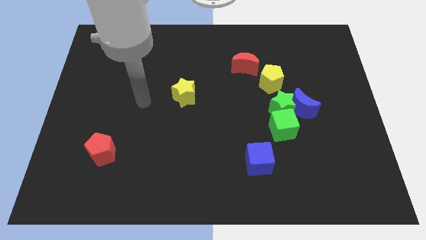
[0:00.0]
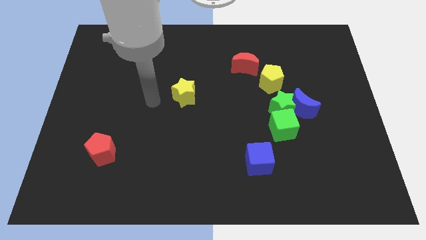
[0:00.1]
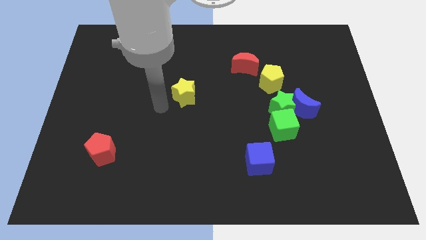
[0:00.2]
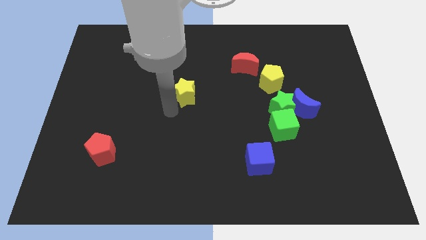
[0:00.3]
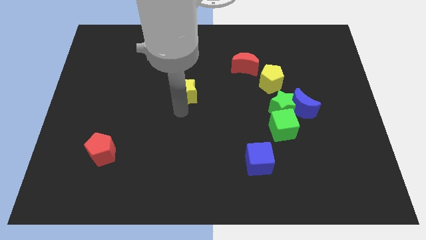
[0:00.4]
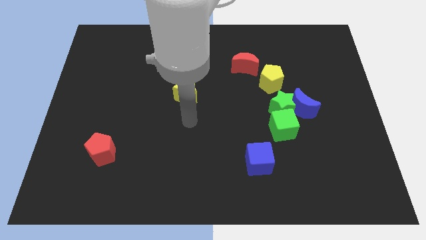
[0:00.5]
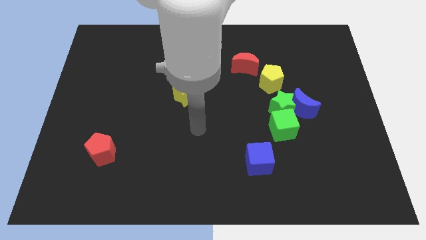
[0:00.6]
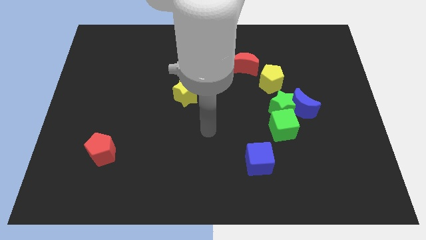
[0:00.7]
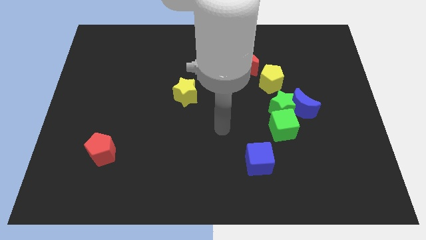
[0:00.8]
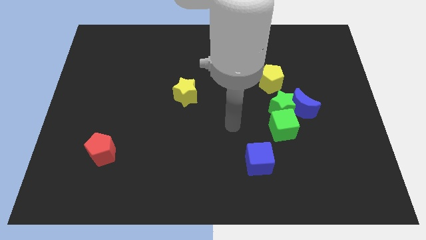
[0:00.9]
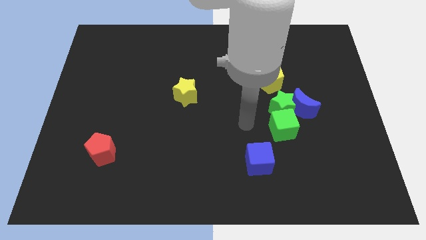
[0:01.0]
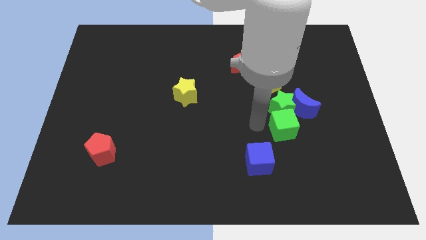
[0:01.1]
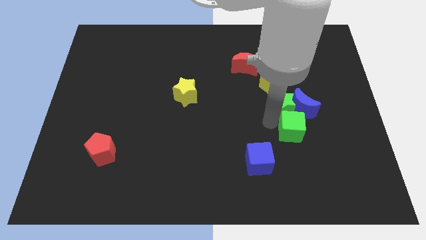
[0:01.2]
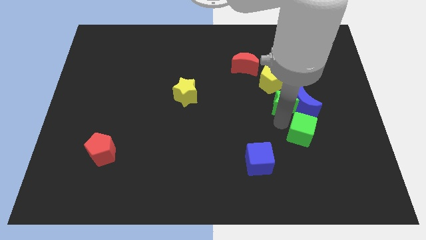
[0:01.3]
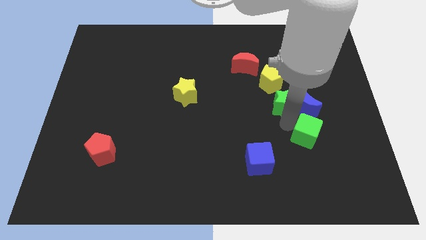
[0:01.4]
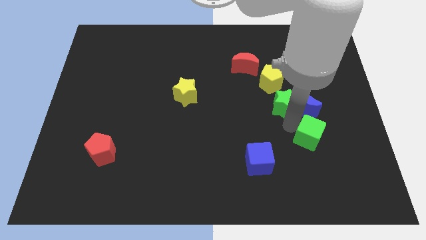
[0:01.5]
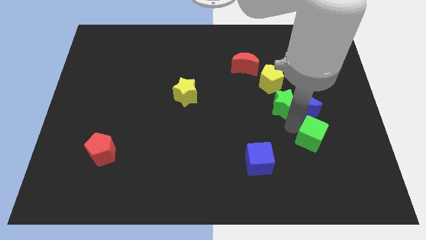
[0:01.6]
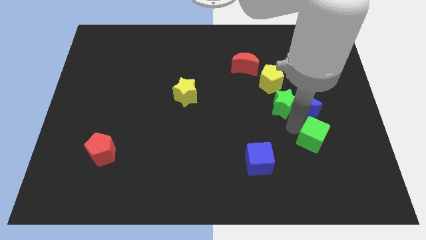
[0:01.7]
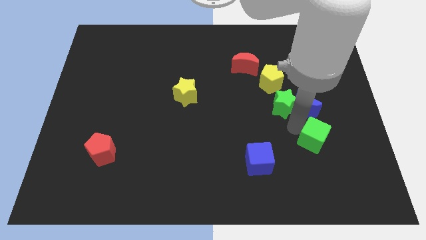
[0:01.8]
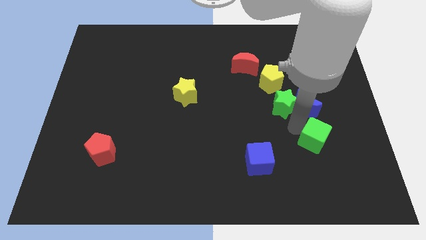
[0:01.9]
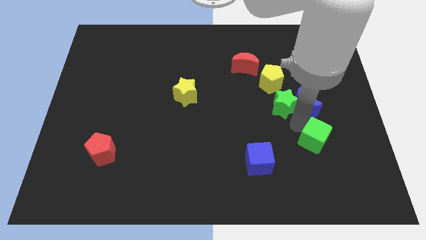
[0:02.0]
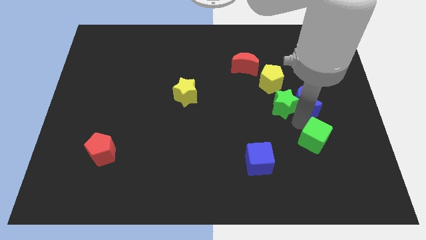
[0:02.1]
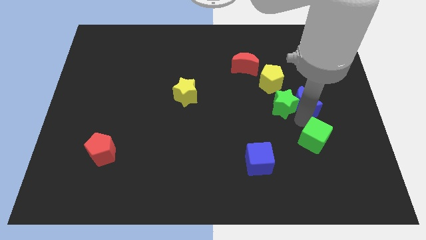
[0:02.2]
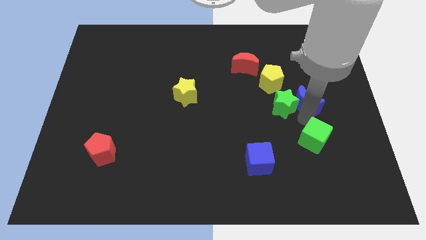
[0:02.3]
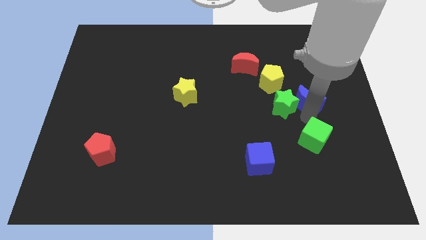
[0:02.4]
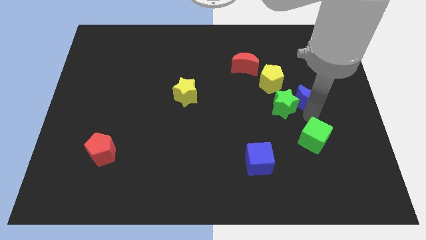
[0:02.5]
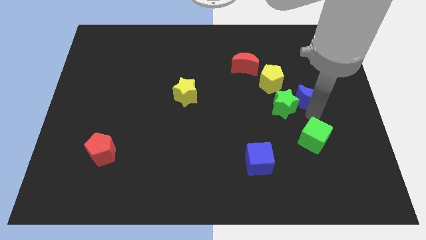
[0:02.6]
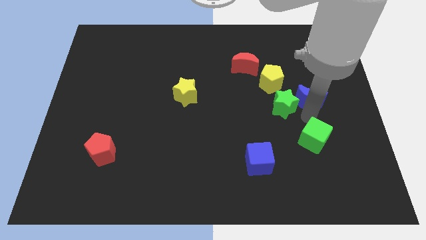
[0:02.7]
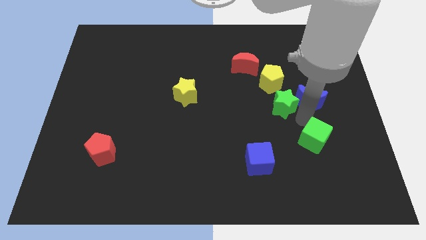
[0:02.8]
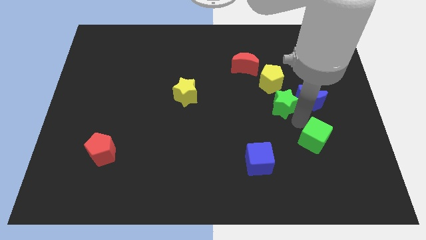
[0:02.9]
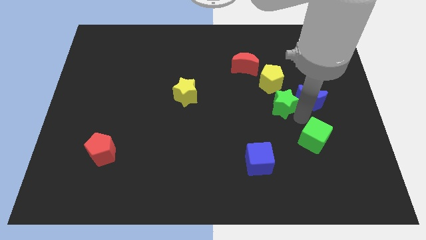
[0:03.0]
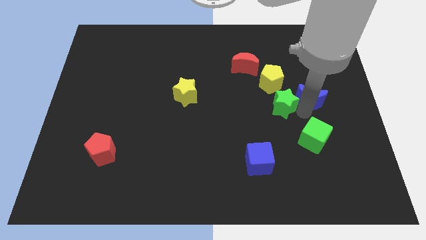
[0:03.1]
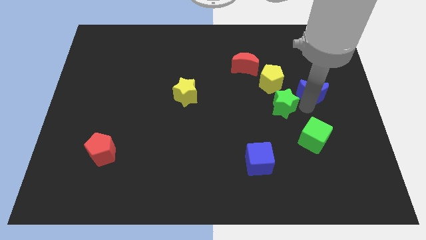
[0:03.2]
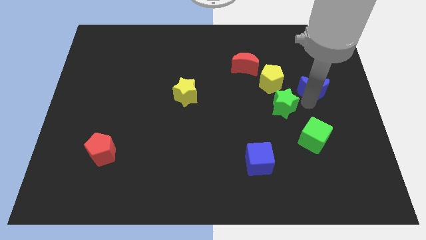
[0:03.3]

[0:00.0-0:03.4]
pull the blue moon apart from the green star and green cube

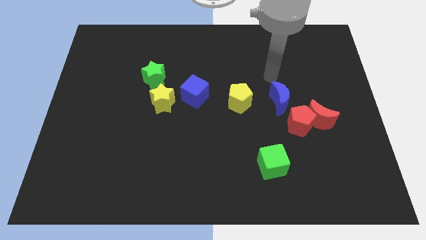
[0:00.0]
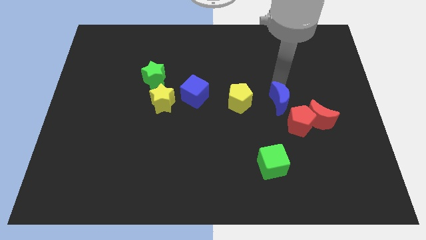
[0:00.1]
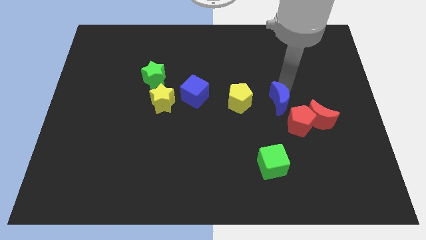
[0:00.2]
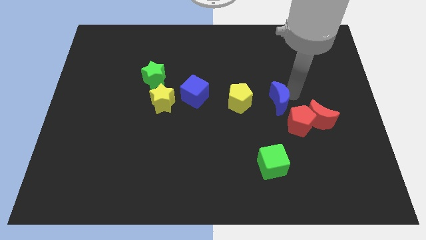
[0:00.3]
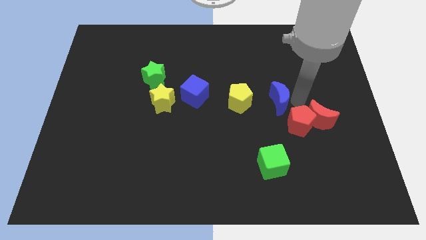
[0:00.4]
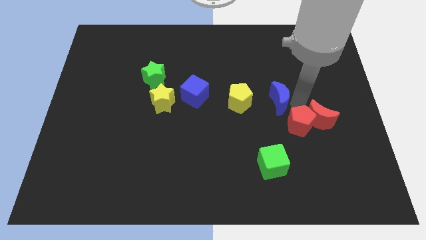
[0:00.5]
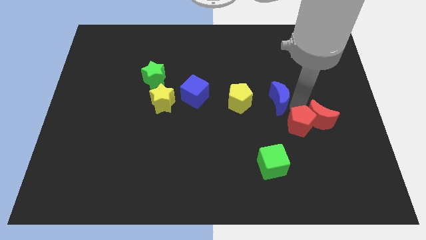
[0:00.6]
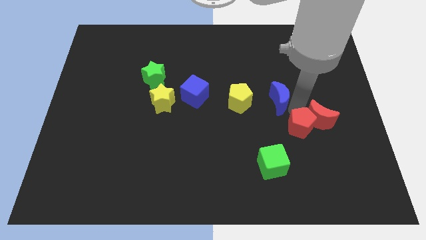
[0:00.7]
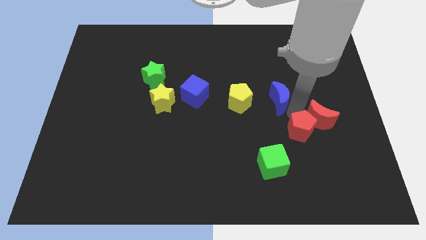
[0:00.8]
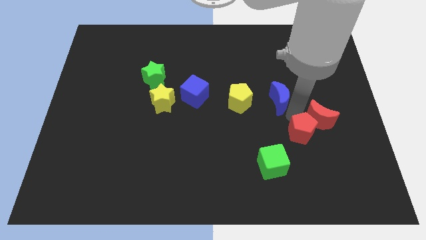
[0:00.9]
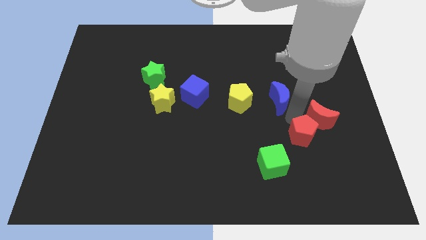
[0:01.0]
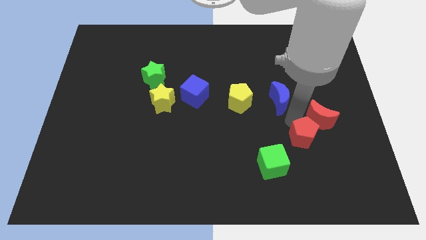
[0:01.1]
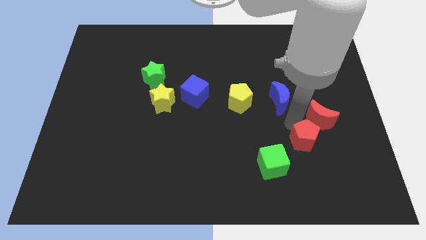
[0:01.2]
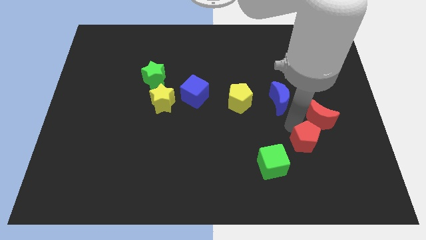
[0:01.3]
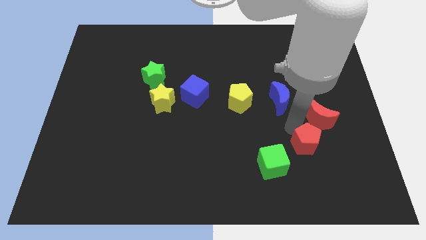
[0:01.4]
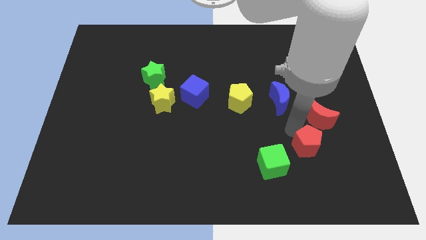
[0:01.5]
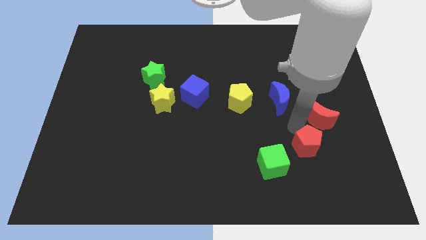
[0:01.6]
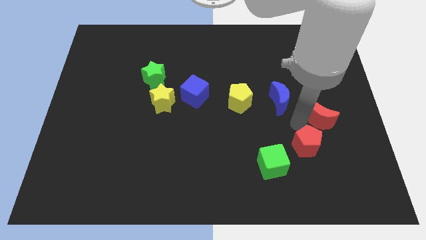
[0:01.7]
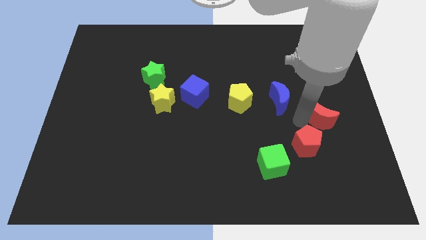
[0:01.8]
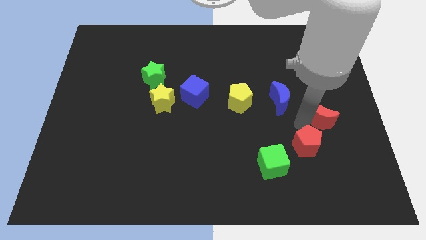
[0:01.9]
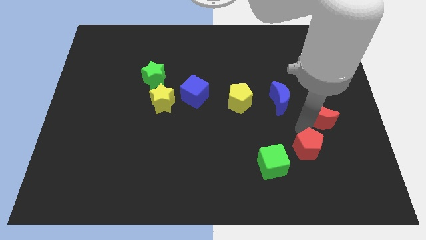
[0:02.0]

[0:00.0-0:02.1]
pull the red pentagon apart from the red moon and blue moon

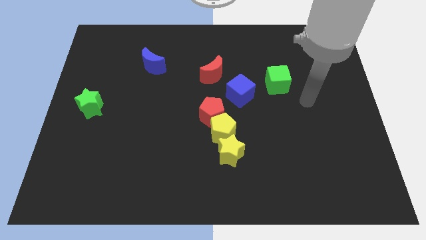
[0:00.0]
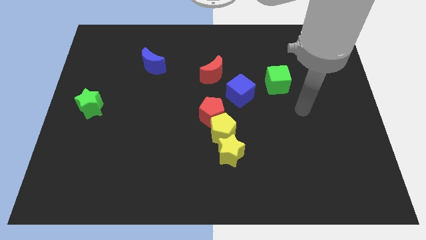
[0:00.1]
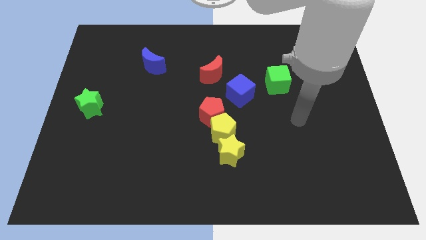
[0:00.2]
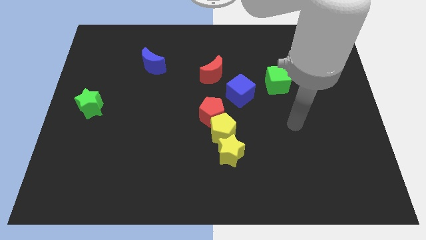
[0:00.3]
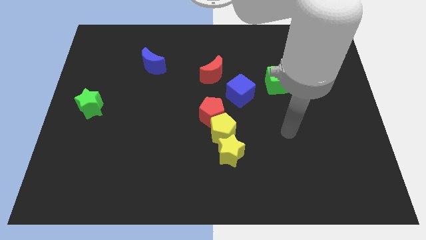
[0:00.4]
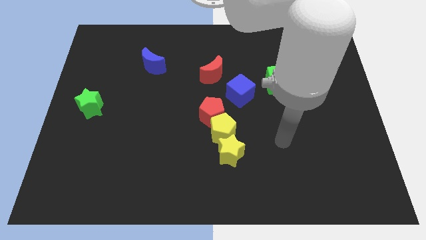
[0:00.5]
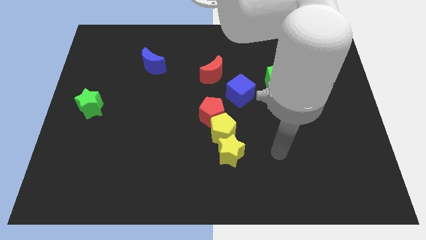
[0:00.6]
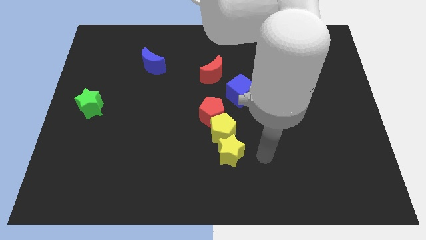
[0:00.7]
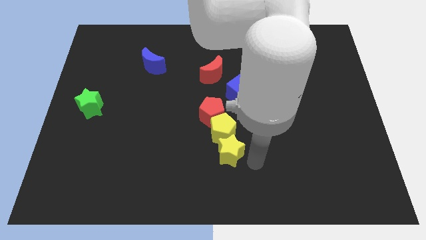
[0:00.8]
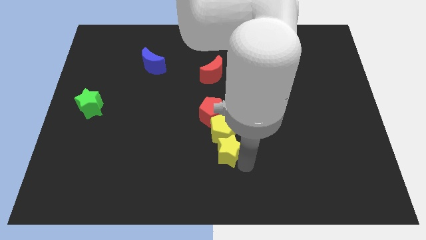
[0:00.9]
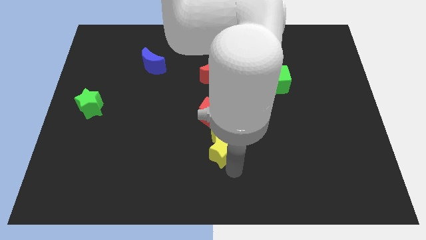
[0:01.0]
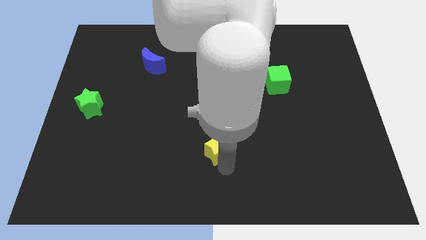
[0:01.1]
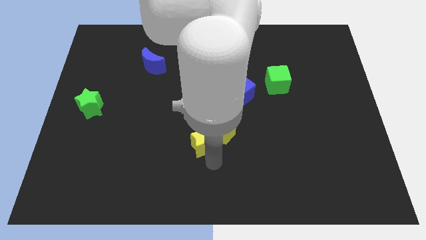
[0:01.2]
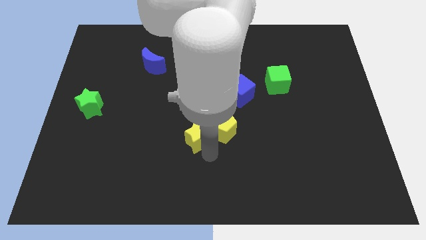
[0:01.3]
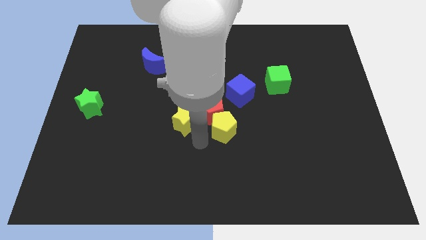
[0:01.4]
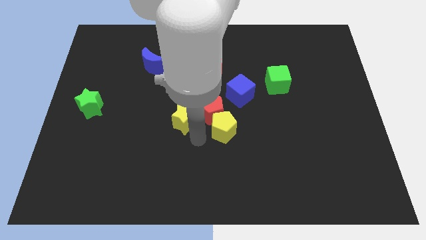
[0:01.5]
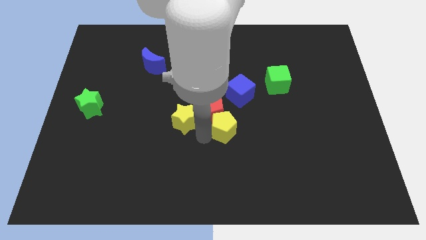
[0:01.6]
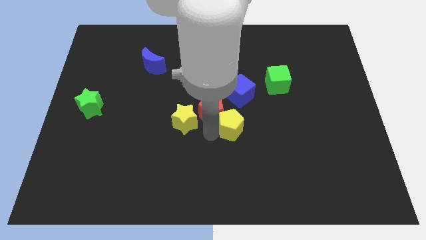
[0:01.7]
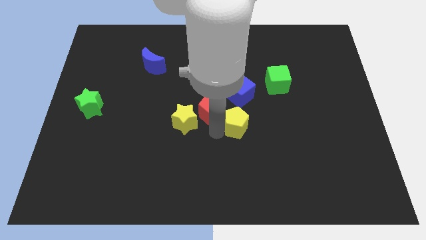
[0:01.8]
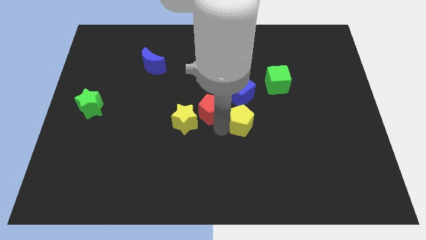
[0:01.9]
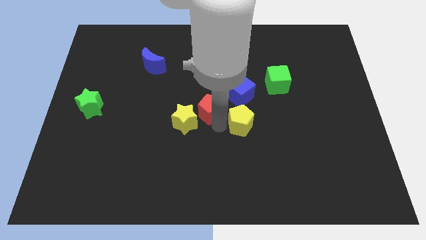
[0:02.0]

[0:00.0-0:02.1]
separate the yellow pentagon from the red pentagon and yellow star

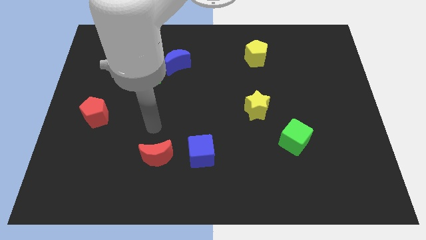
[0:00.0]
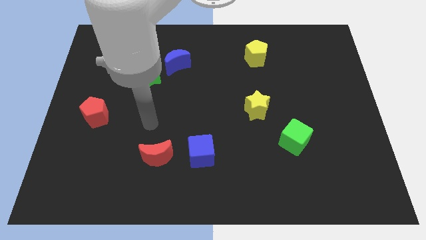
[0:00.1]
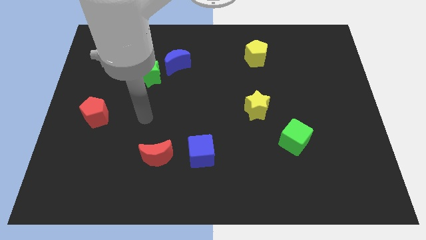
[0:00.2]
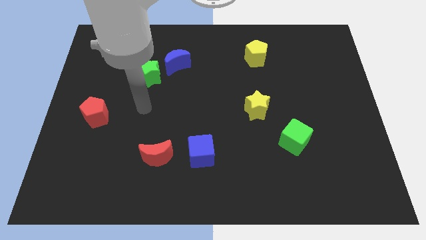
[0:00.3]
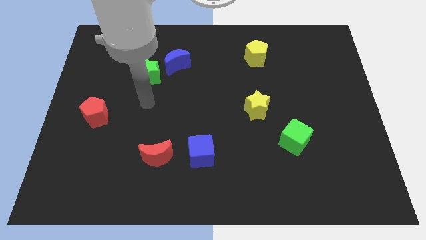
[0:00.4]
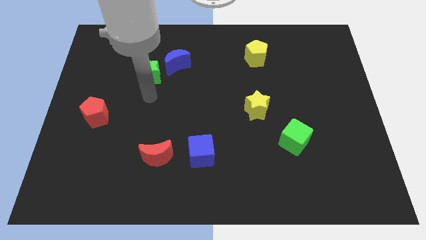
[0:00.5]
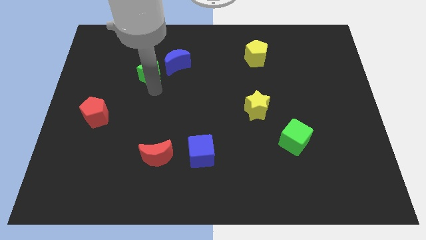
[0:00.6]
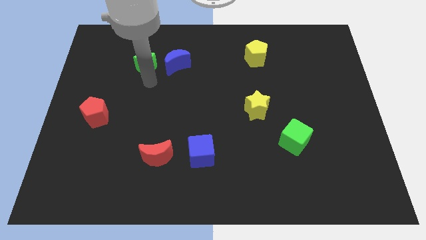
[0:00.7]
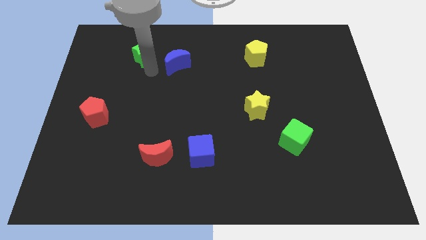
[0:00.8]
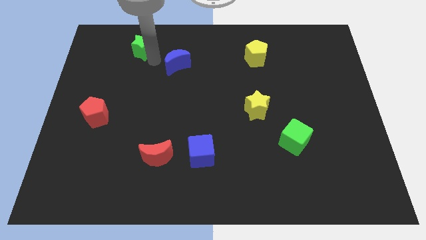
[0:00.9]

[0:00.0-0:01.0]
separate the blue moon from the green star

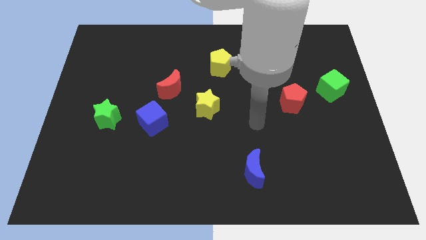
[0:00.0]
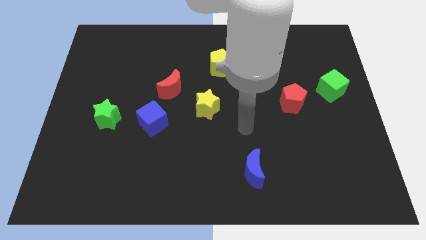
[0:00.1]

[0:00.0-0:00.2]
separate the red moon from the yellow star

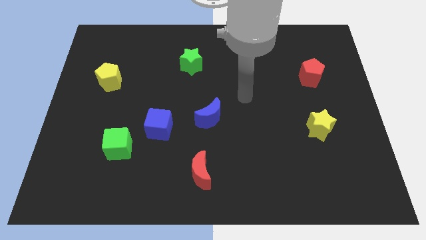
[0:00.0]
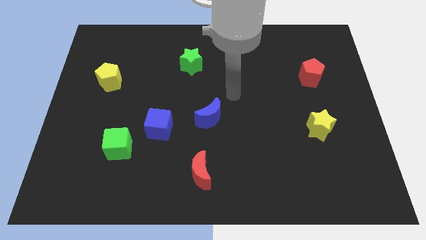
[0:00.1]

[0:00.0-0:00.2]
pull the blue cube apart from the green cube
